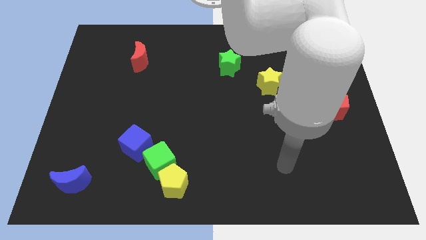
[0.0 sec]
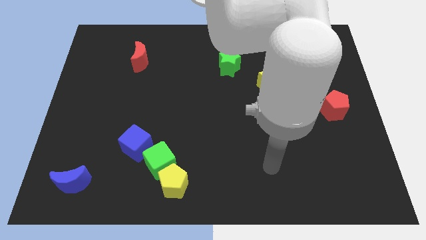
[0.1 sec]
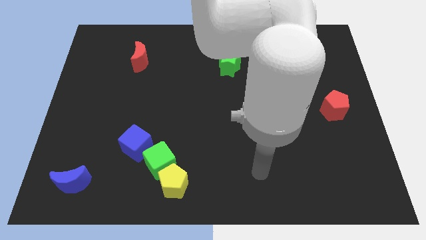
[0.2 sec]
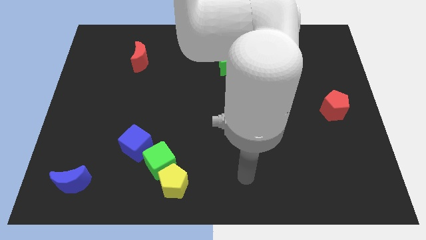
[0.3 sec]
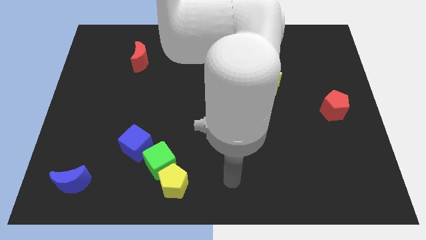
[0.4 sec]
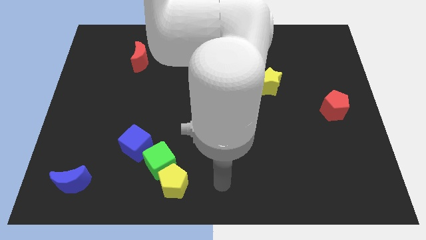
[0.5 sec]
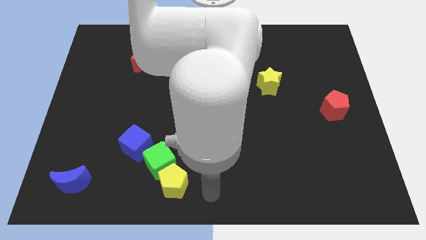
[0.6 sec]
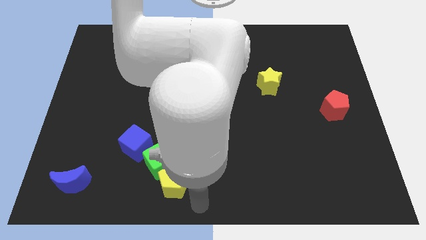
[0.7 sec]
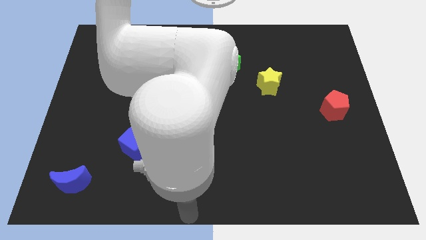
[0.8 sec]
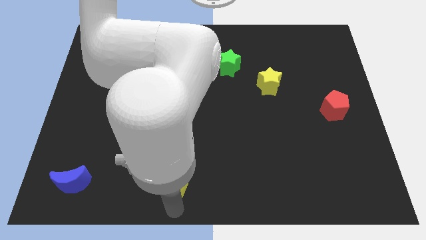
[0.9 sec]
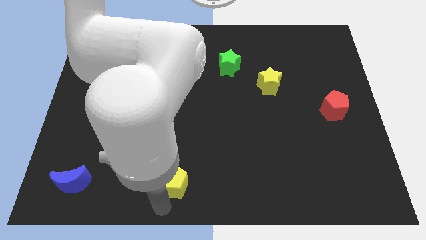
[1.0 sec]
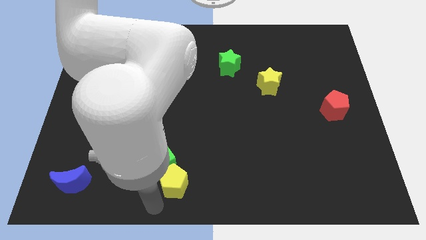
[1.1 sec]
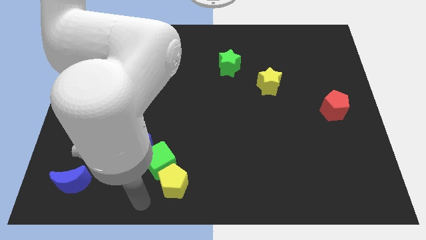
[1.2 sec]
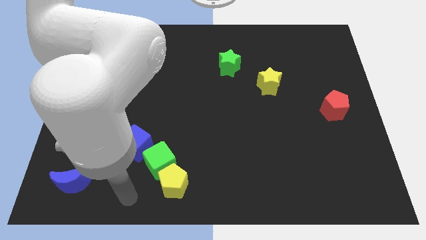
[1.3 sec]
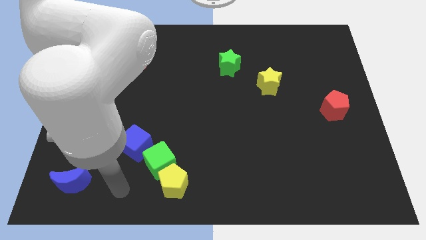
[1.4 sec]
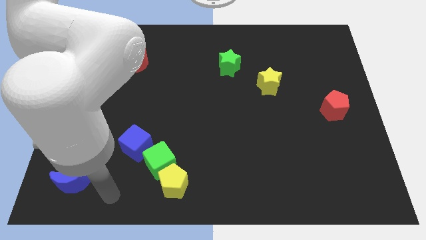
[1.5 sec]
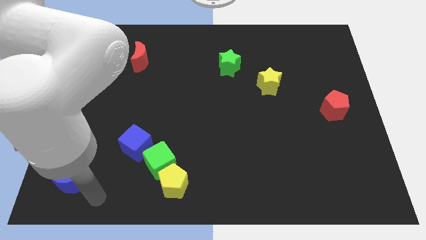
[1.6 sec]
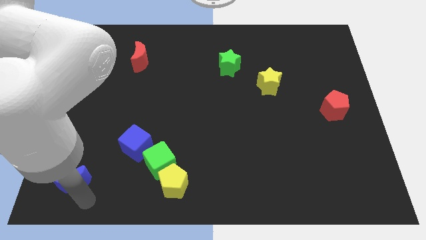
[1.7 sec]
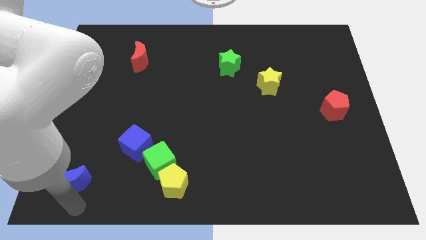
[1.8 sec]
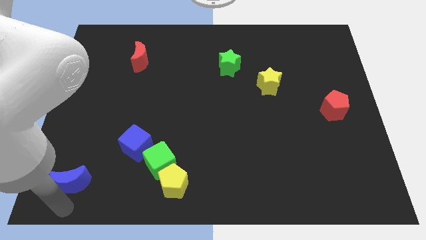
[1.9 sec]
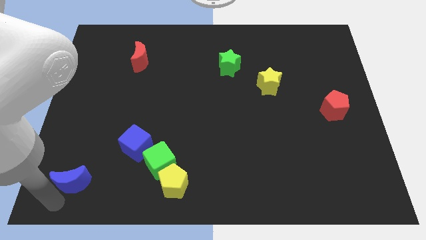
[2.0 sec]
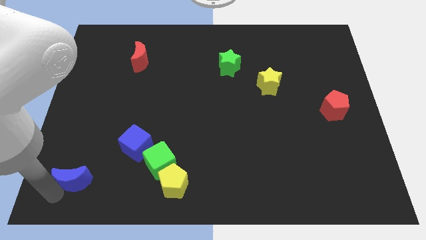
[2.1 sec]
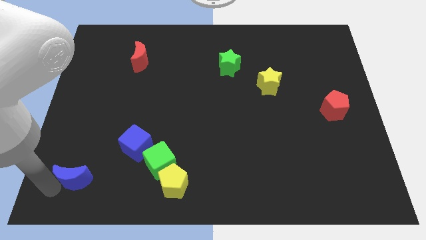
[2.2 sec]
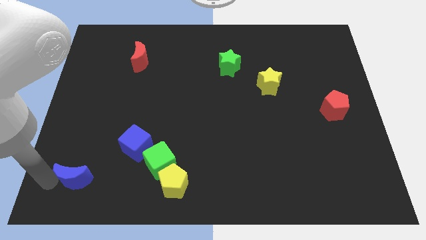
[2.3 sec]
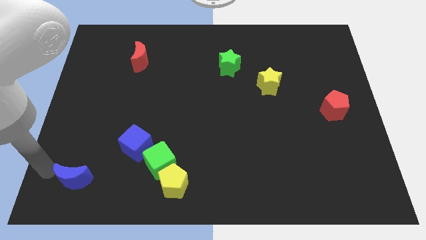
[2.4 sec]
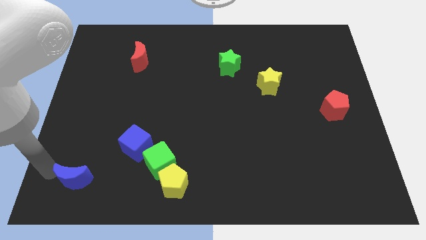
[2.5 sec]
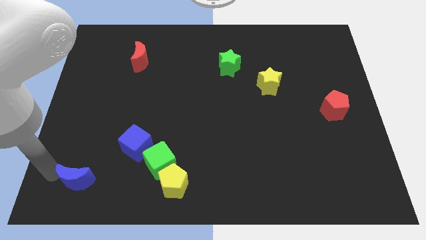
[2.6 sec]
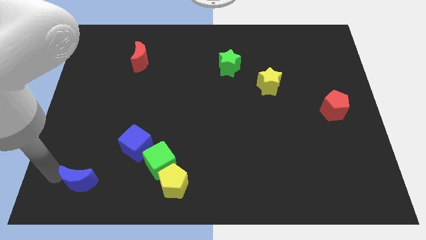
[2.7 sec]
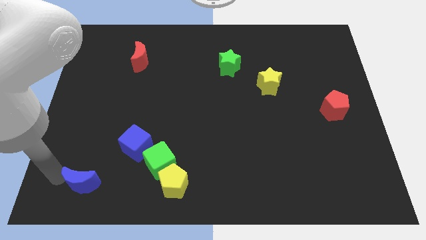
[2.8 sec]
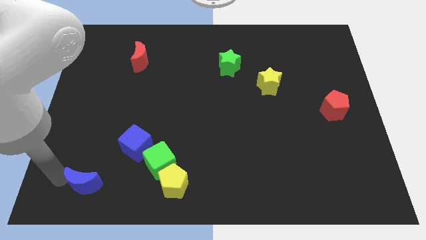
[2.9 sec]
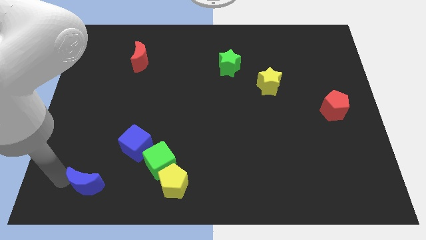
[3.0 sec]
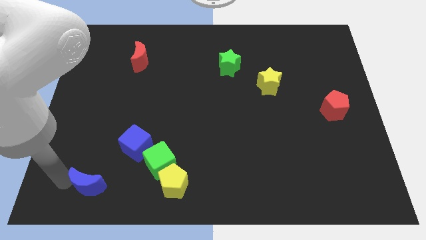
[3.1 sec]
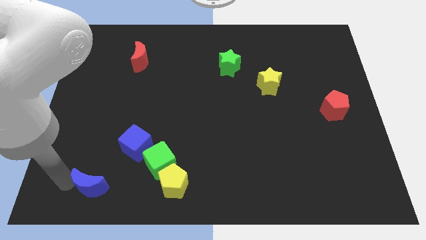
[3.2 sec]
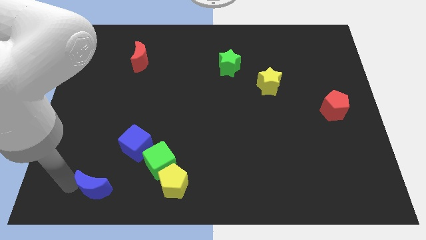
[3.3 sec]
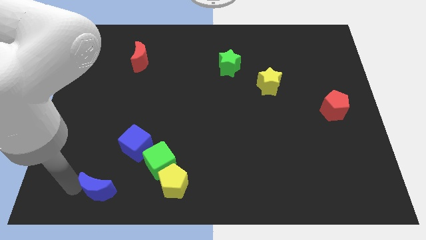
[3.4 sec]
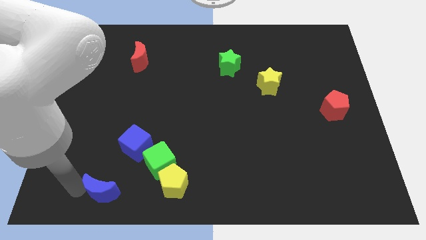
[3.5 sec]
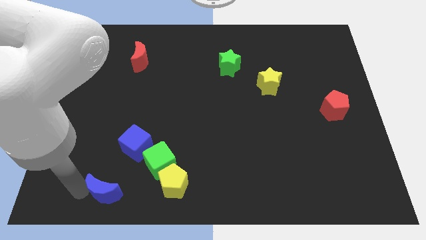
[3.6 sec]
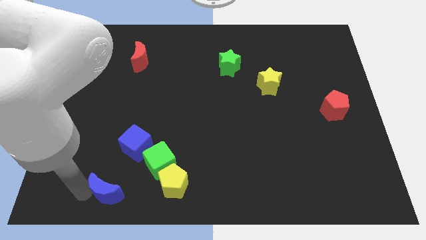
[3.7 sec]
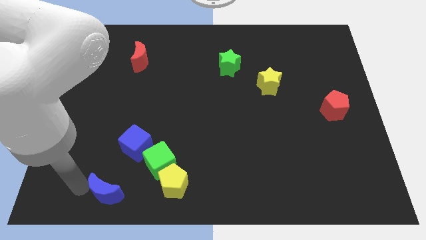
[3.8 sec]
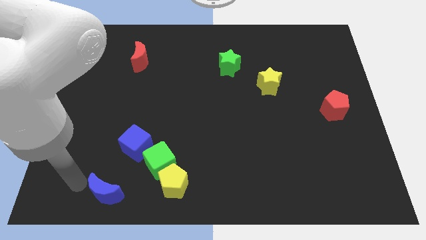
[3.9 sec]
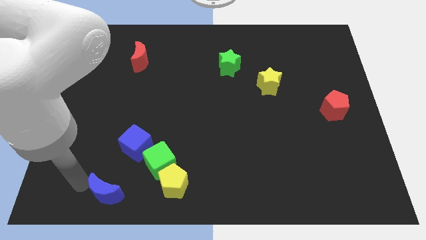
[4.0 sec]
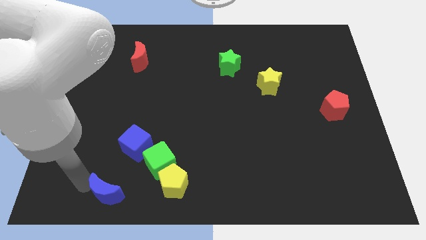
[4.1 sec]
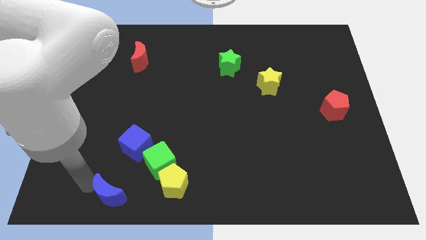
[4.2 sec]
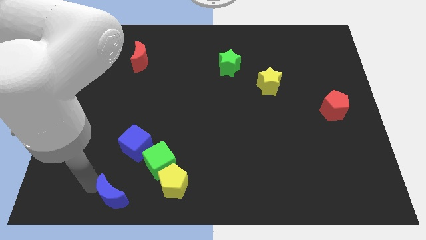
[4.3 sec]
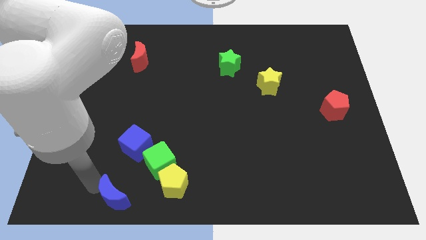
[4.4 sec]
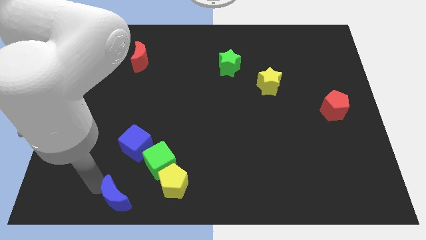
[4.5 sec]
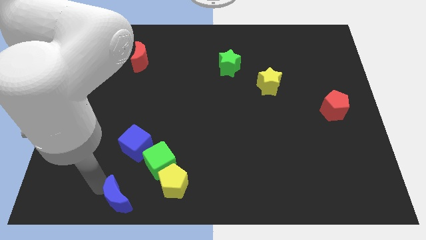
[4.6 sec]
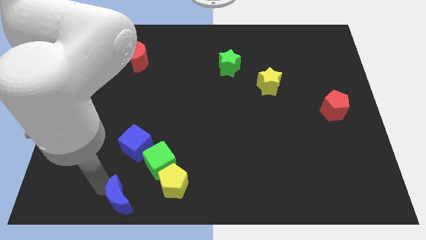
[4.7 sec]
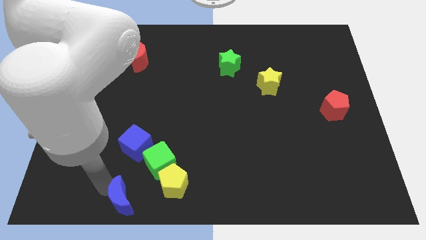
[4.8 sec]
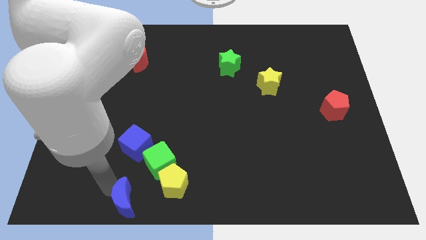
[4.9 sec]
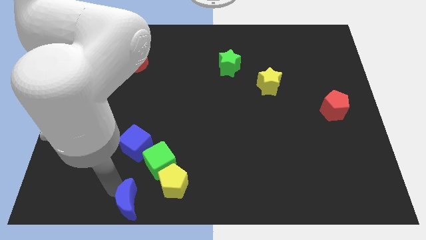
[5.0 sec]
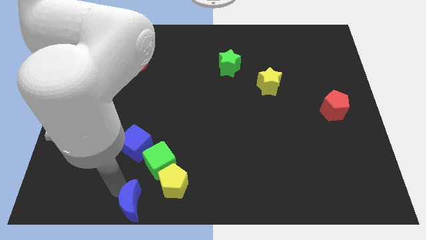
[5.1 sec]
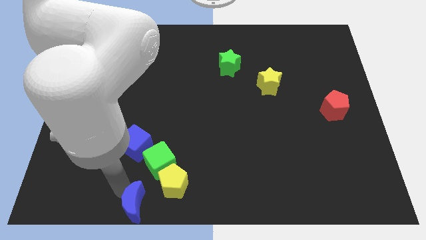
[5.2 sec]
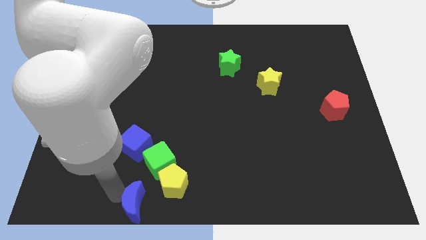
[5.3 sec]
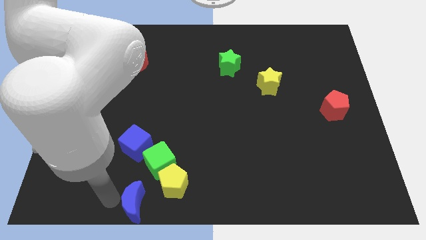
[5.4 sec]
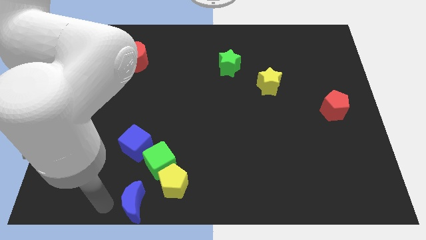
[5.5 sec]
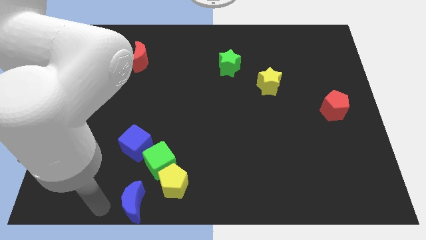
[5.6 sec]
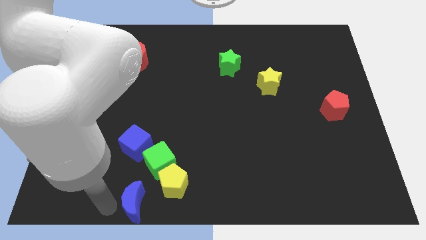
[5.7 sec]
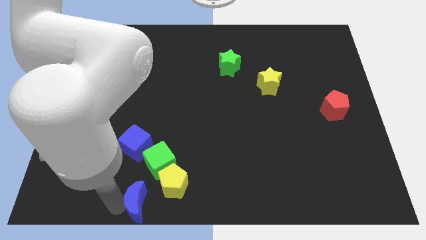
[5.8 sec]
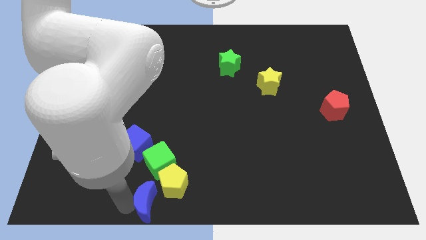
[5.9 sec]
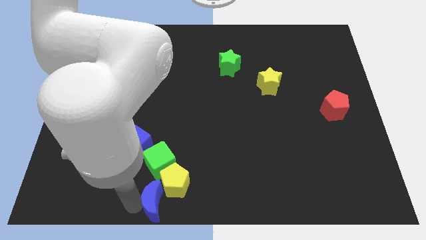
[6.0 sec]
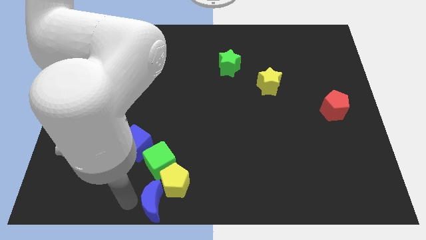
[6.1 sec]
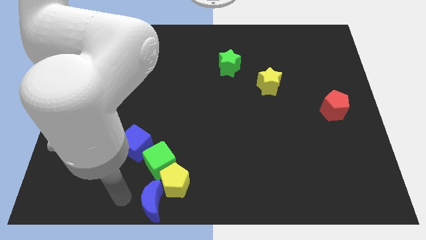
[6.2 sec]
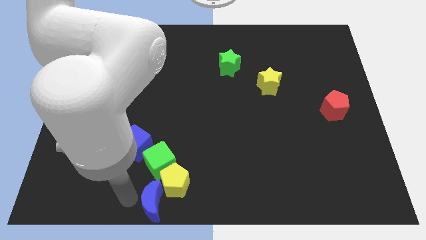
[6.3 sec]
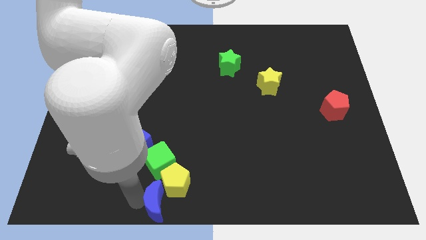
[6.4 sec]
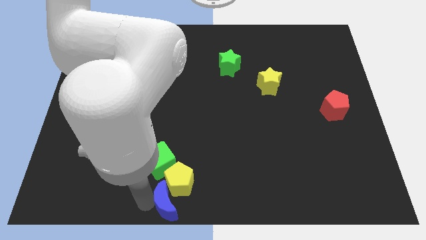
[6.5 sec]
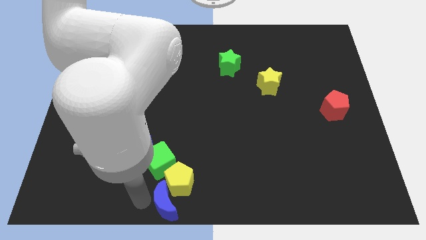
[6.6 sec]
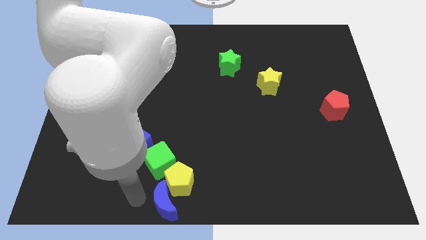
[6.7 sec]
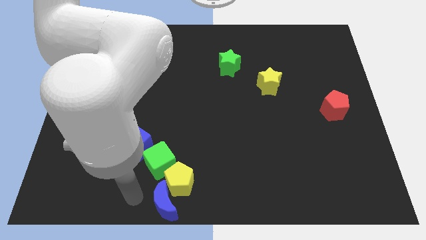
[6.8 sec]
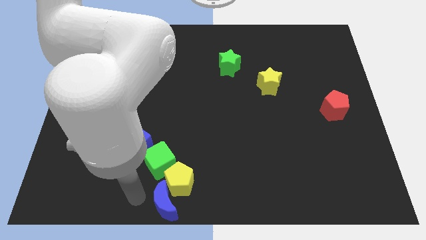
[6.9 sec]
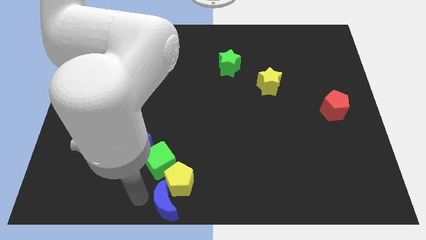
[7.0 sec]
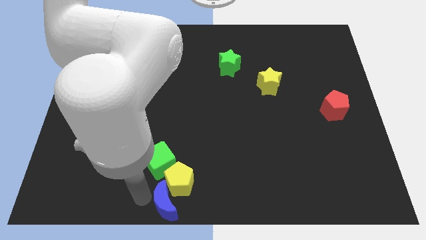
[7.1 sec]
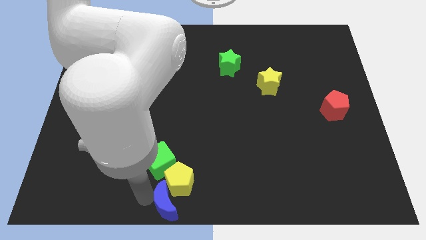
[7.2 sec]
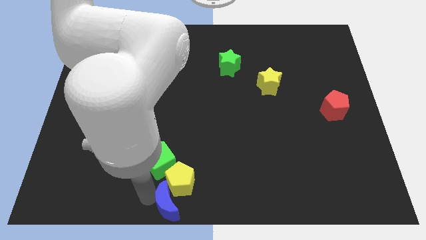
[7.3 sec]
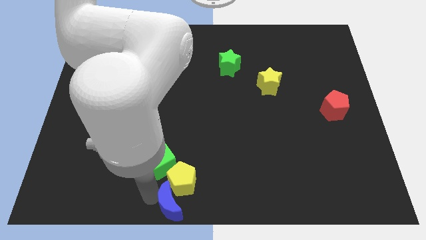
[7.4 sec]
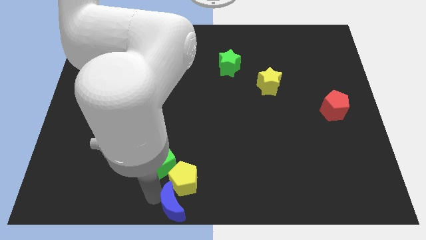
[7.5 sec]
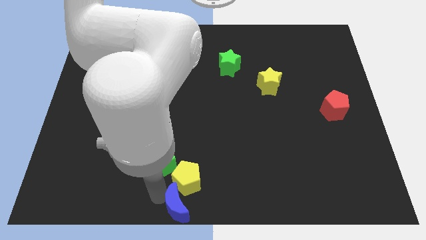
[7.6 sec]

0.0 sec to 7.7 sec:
slide the blue moon to the right
